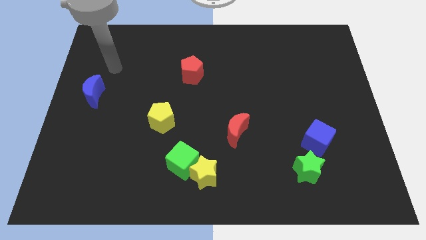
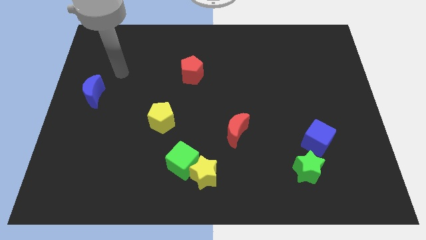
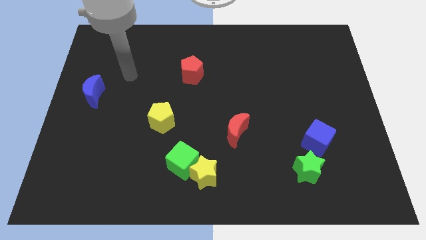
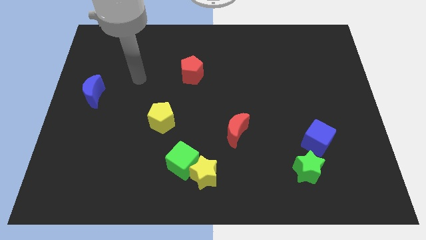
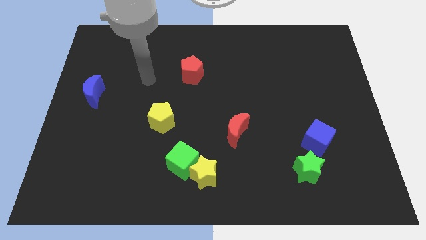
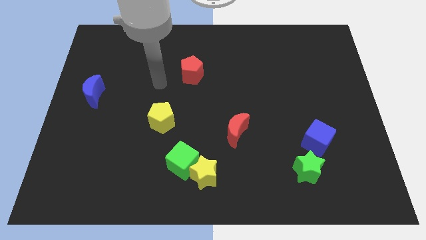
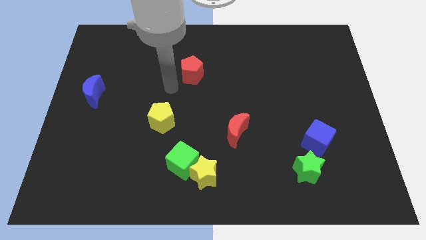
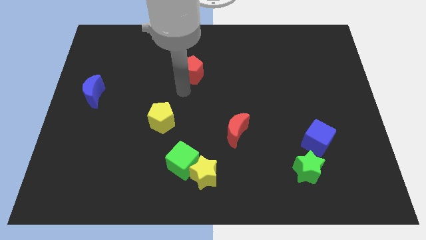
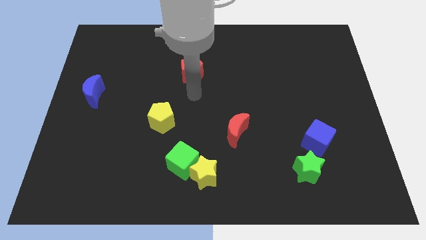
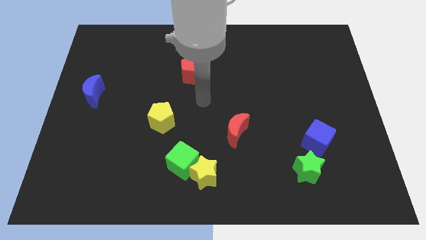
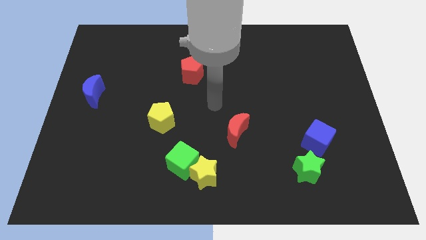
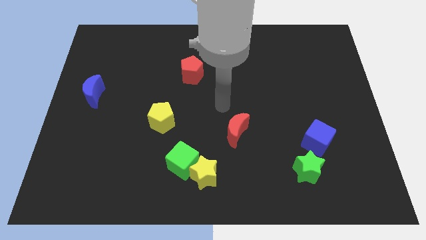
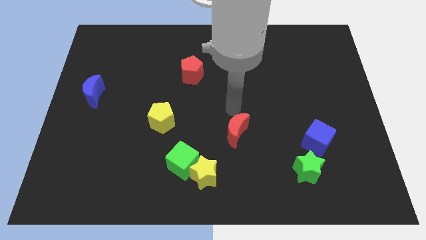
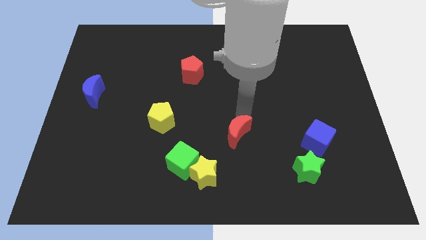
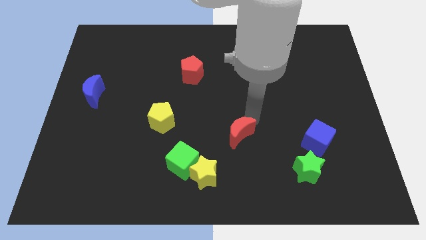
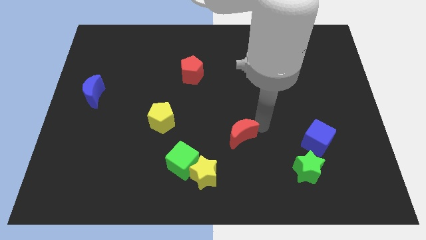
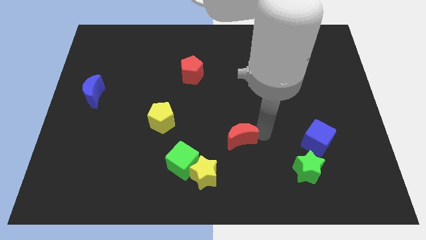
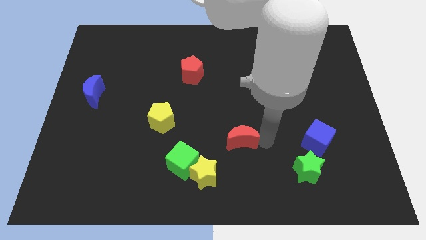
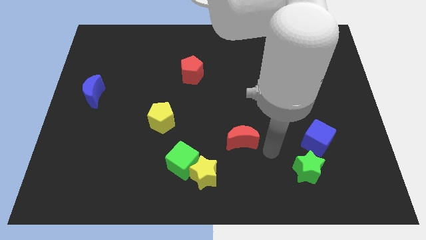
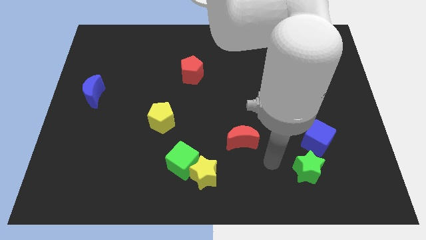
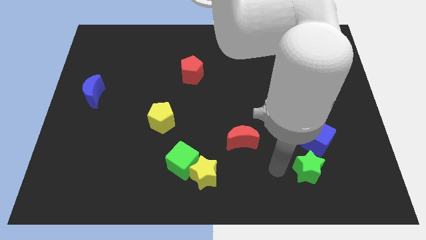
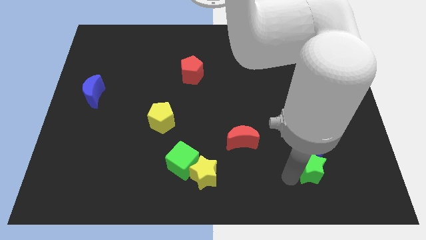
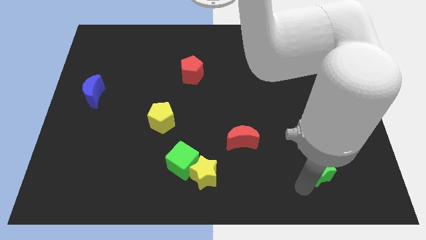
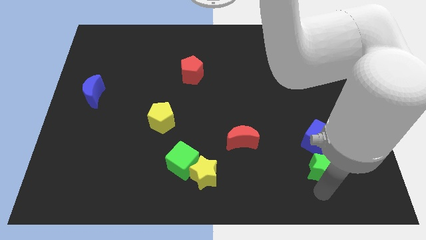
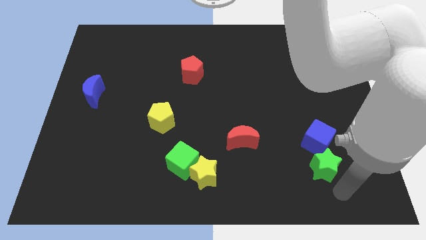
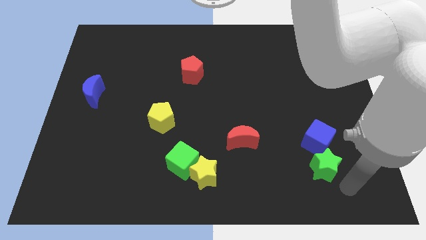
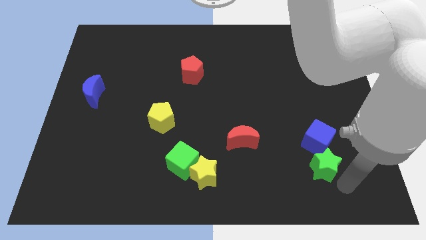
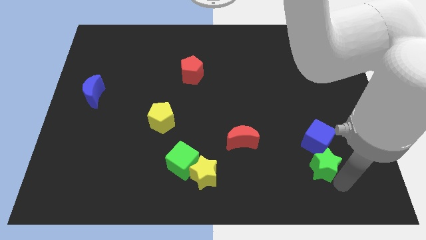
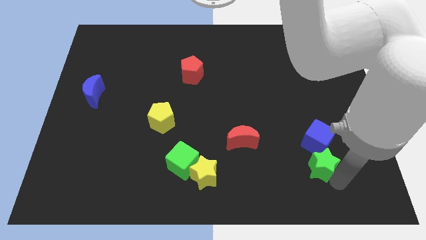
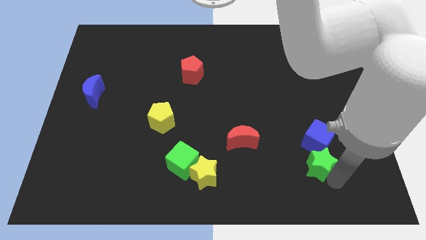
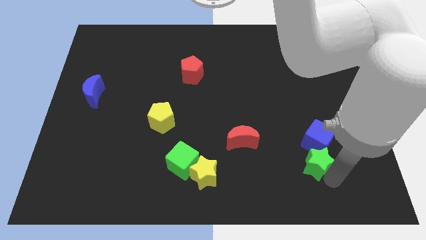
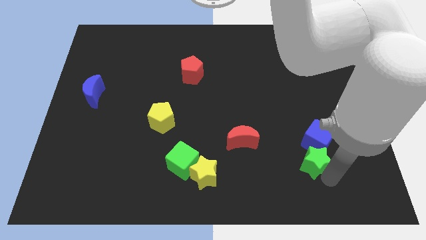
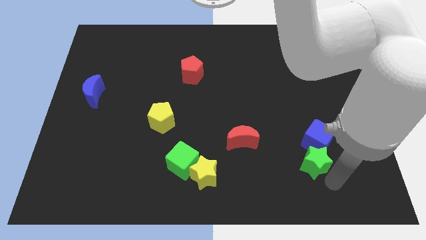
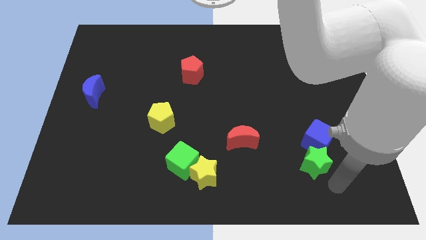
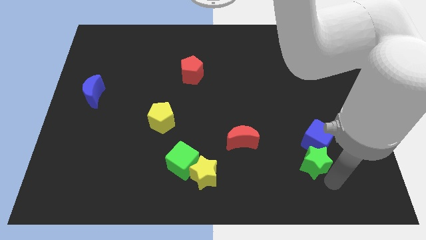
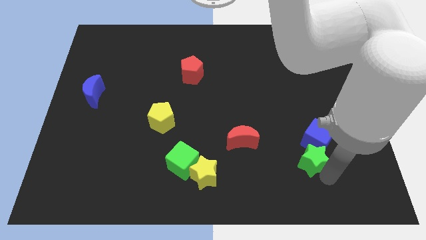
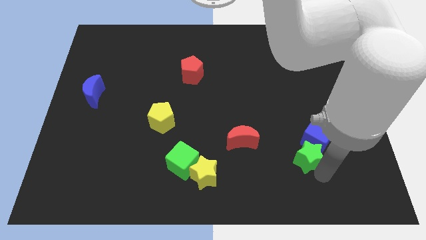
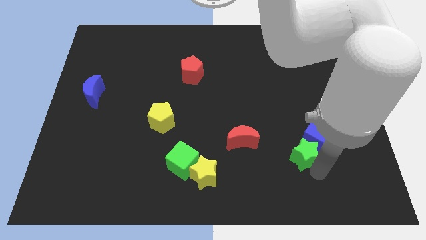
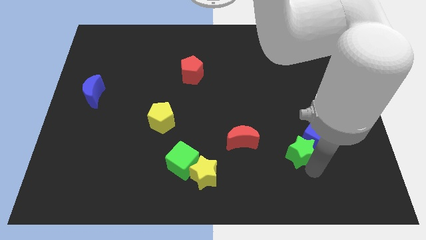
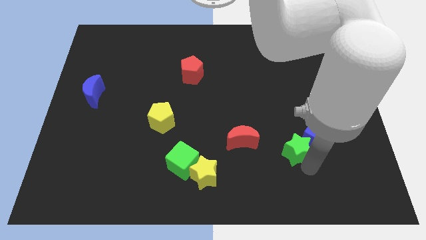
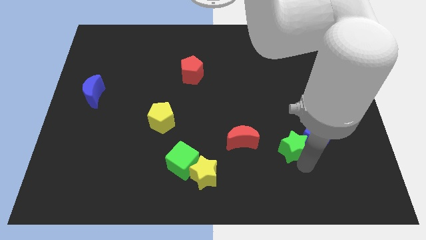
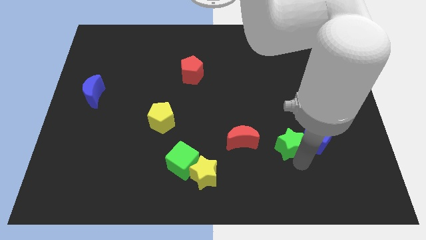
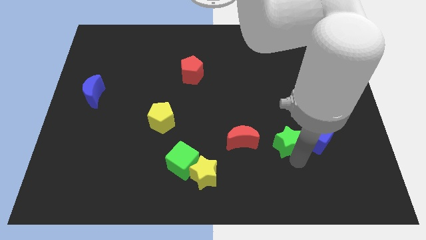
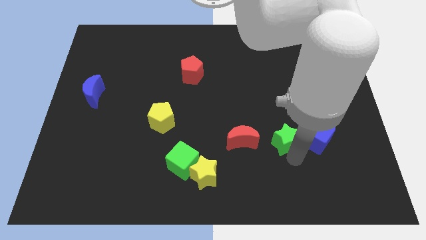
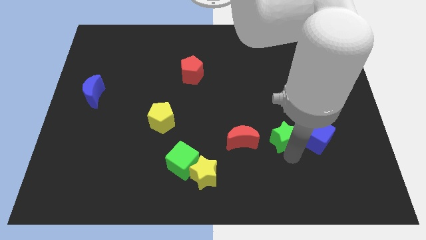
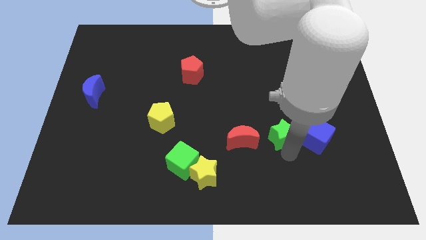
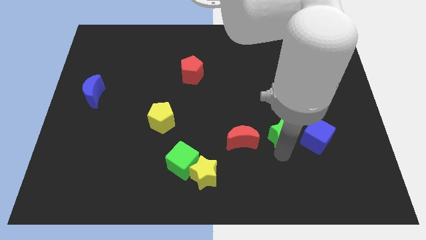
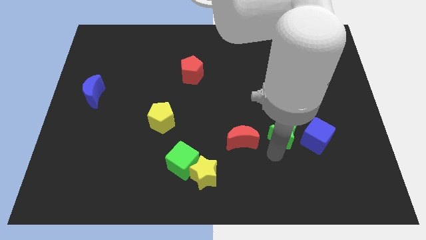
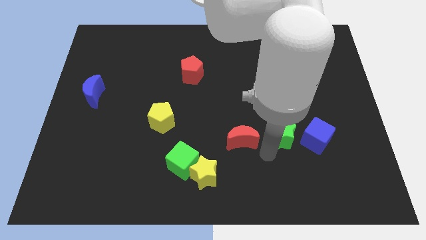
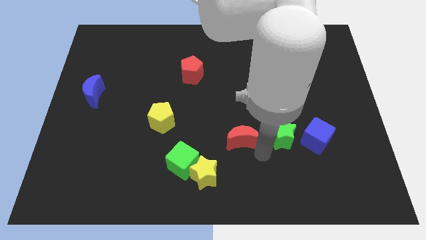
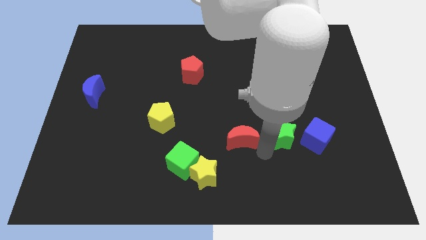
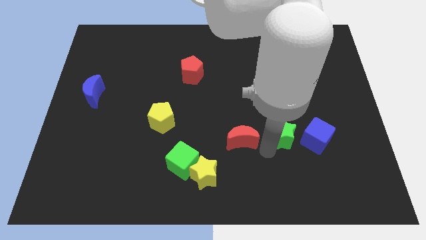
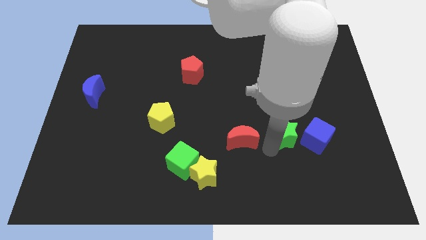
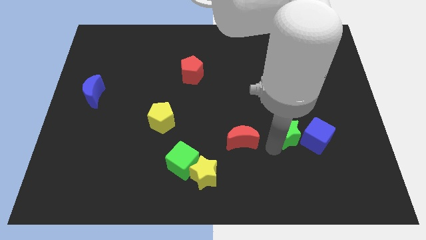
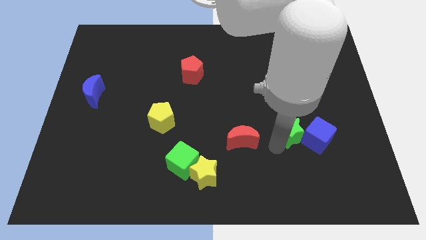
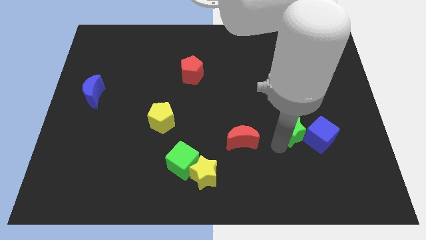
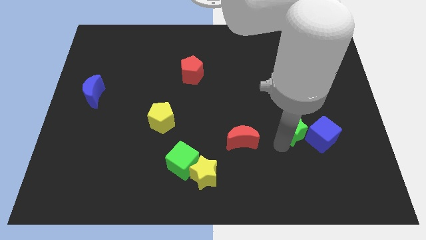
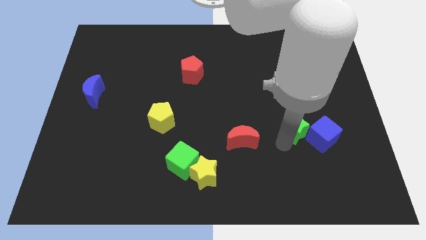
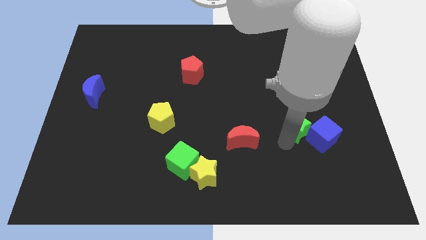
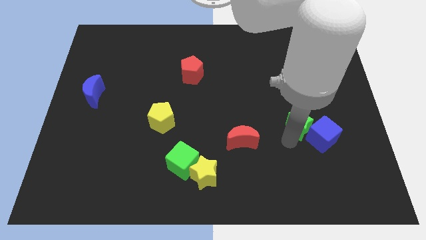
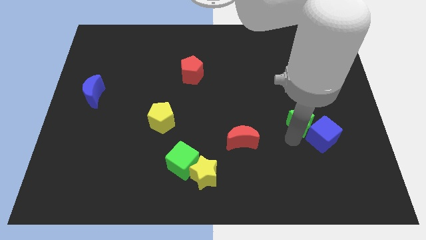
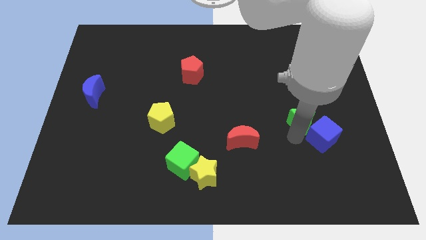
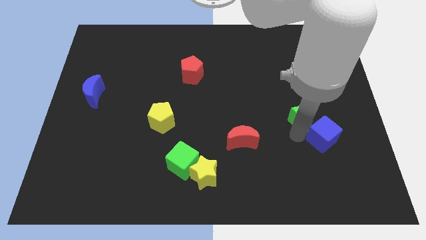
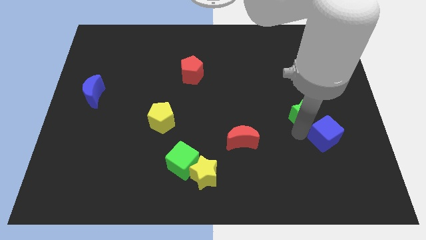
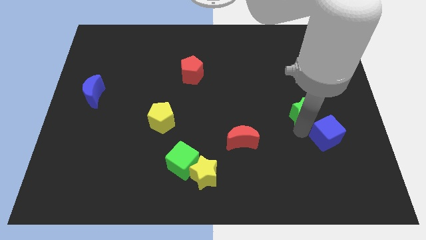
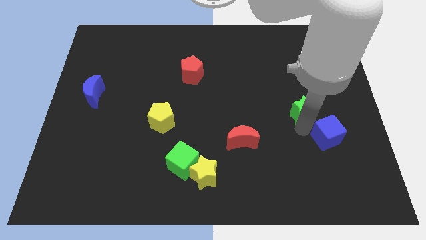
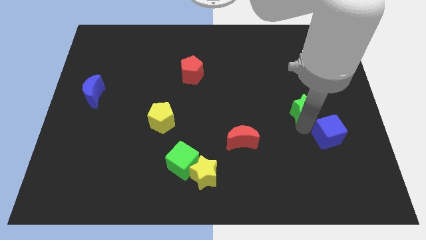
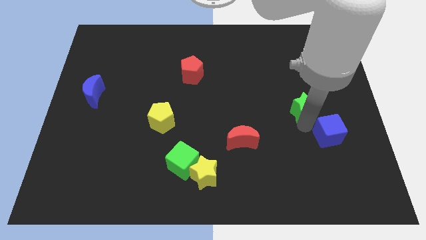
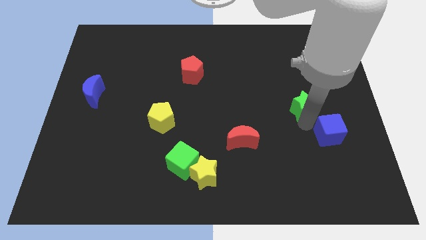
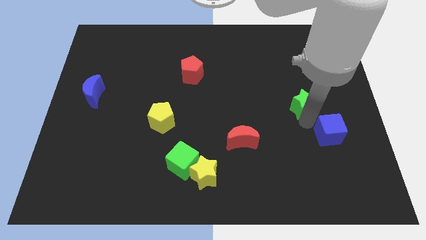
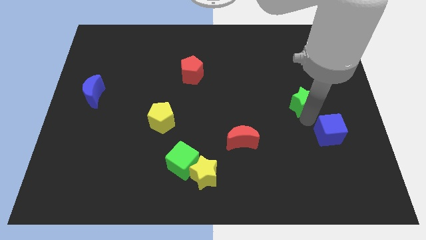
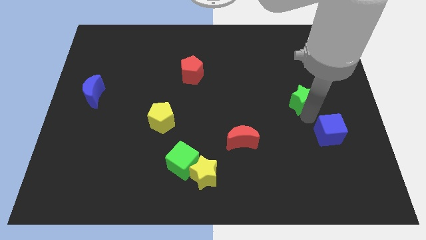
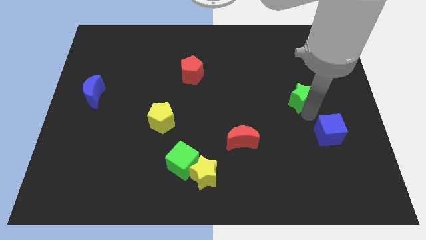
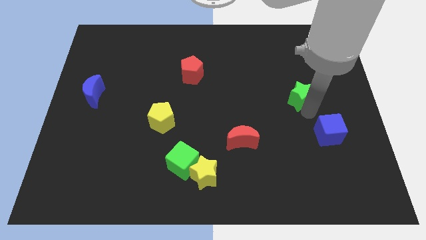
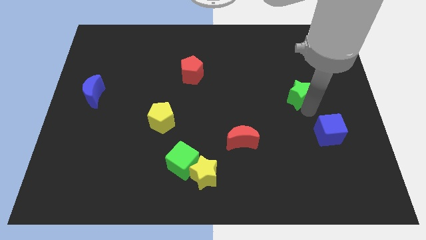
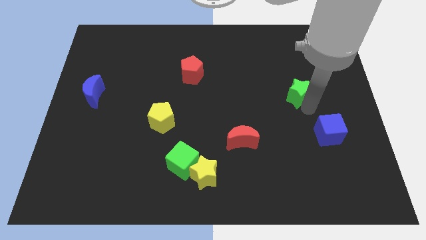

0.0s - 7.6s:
push the green star up

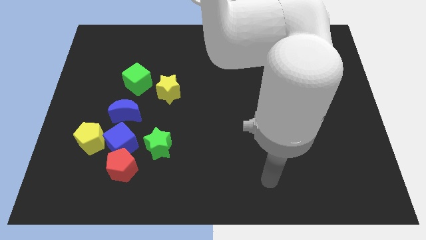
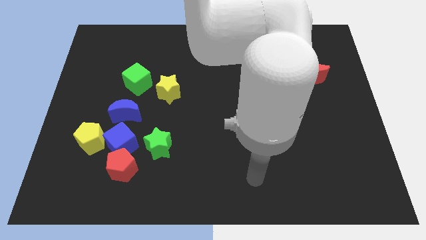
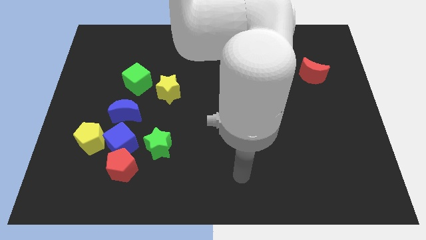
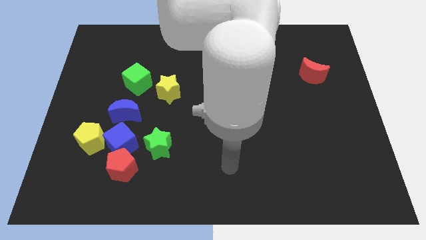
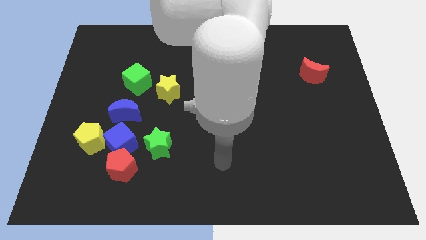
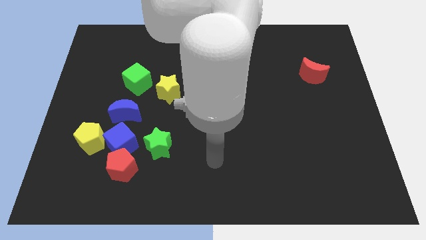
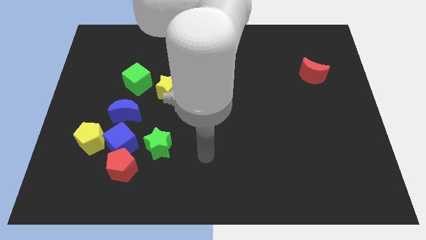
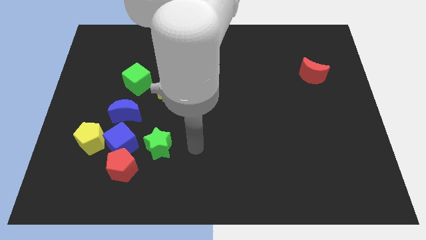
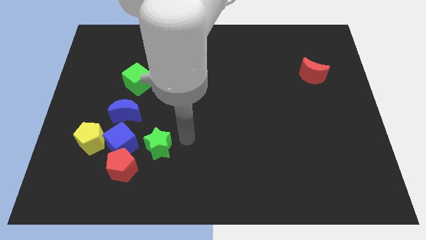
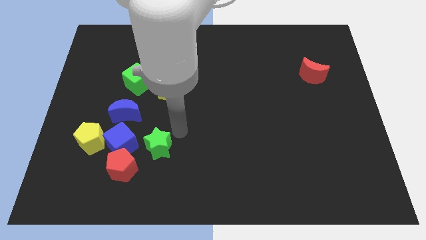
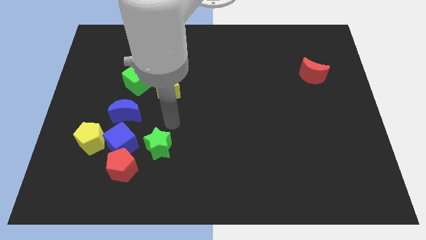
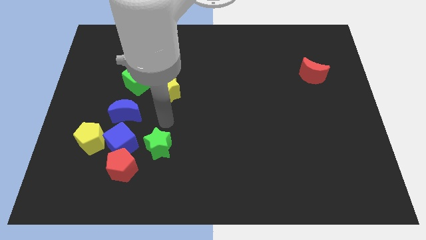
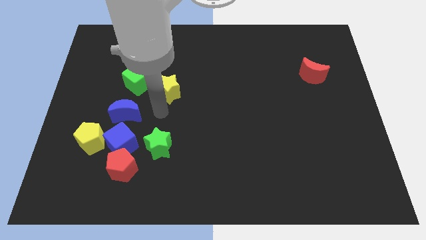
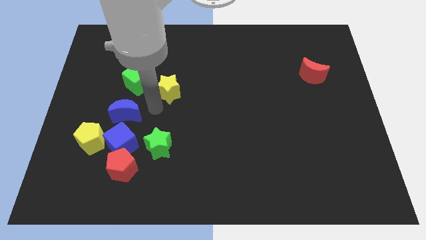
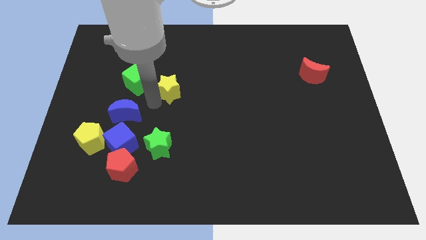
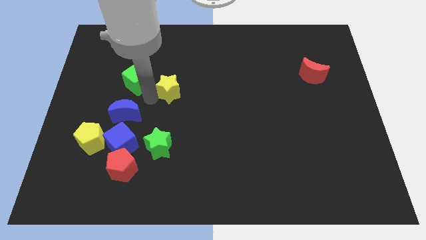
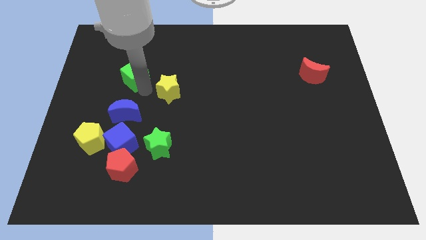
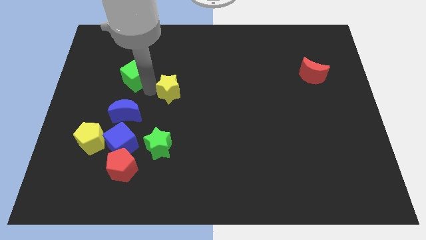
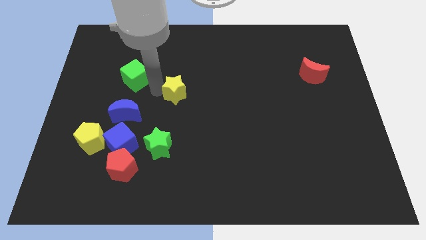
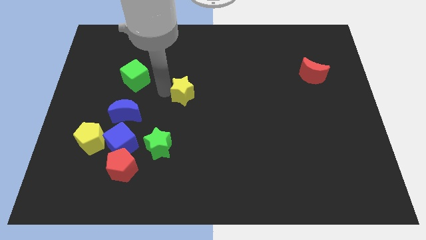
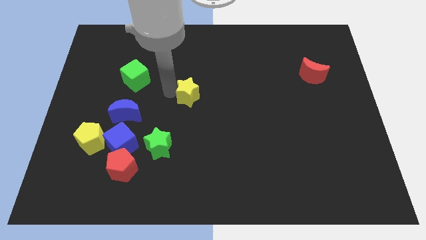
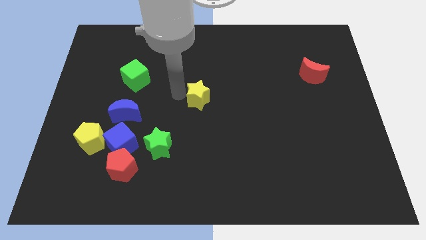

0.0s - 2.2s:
push the yellow star slightly to the right
